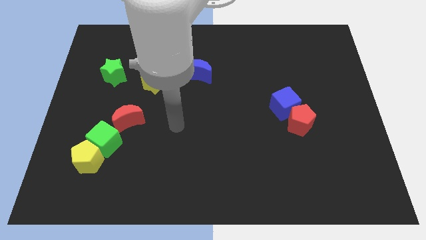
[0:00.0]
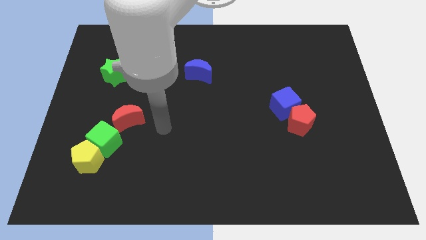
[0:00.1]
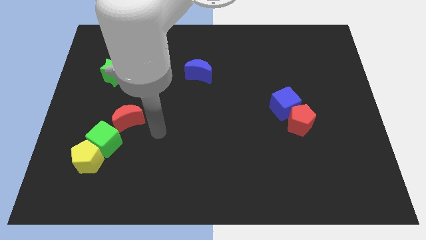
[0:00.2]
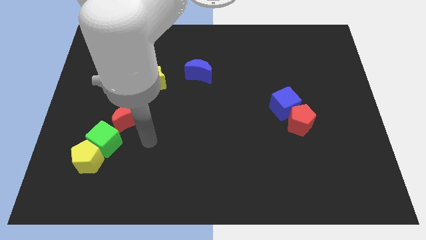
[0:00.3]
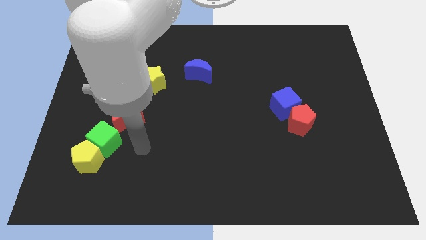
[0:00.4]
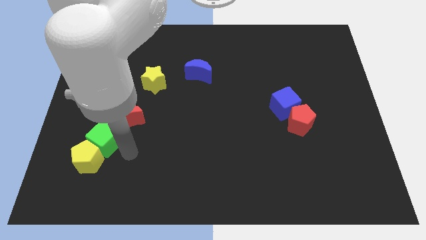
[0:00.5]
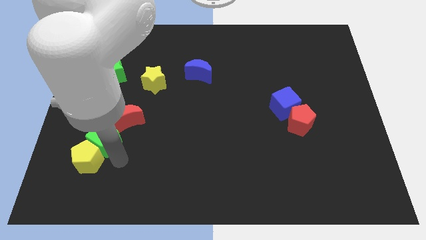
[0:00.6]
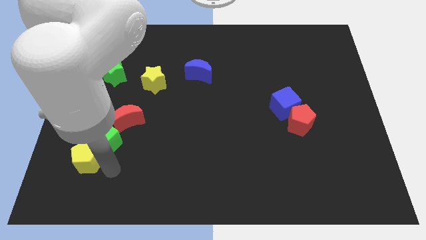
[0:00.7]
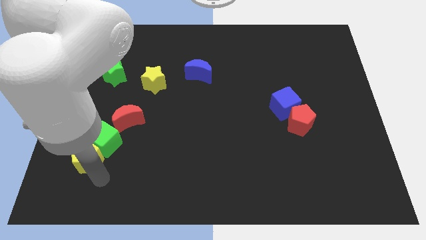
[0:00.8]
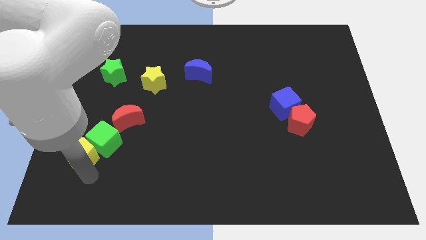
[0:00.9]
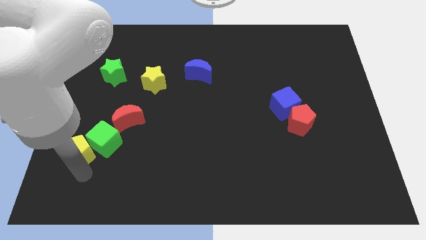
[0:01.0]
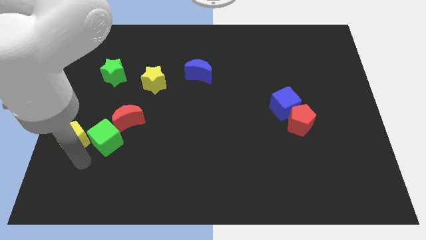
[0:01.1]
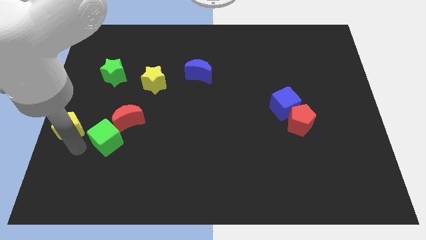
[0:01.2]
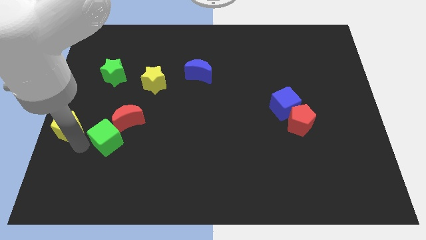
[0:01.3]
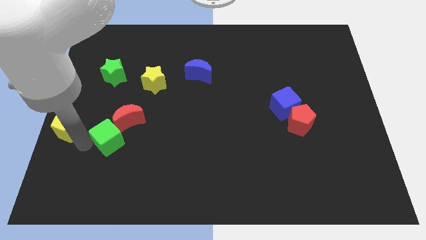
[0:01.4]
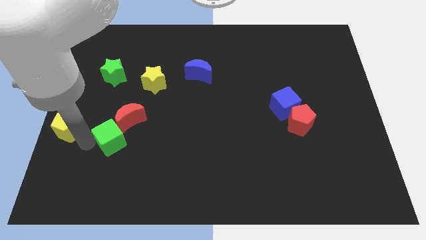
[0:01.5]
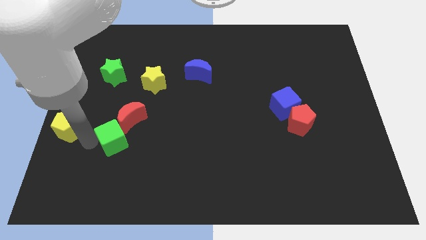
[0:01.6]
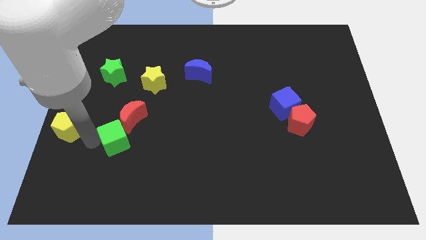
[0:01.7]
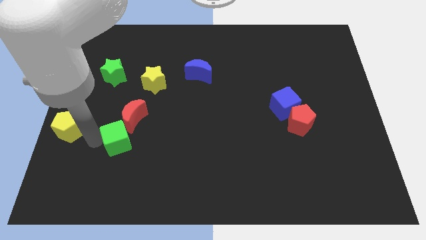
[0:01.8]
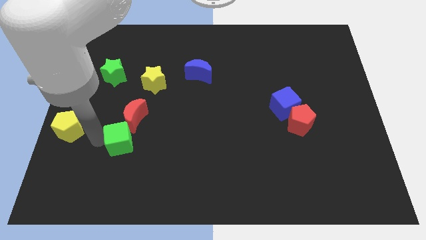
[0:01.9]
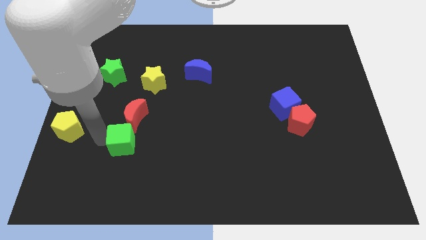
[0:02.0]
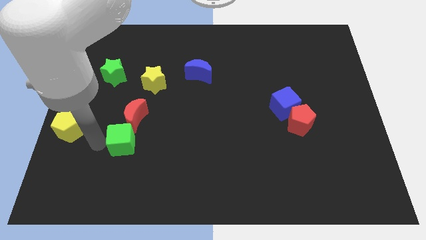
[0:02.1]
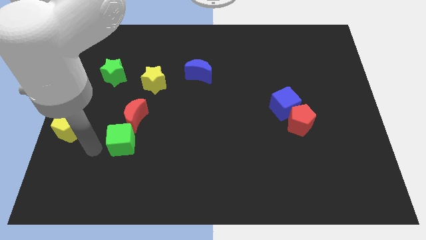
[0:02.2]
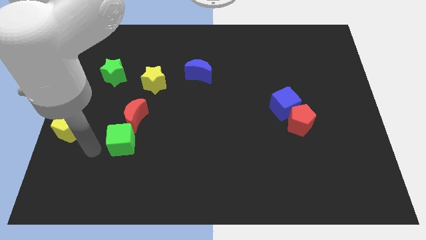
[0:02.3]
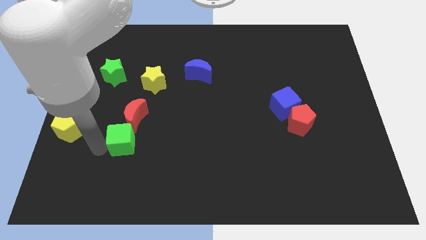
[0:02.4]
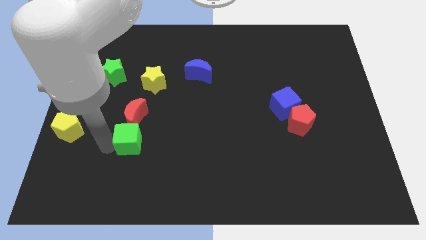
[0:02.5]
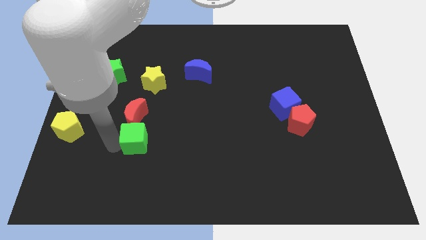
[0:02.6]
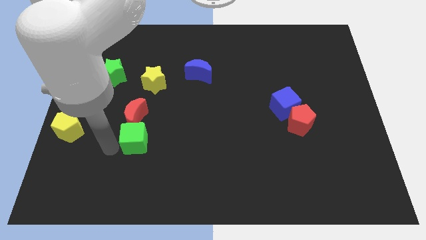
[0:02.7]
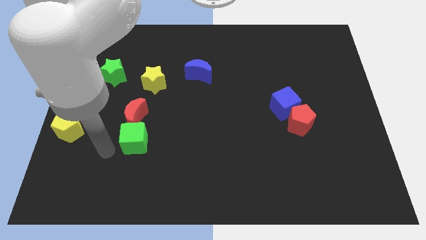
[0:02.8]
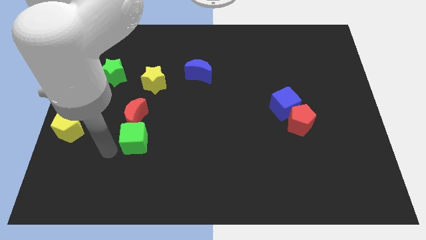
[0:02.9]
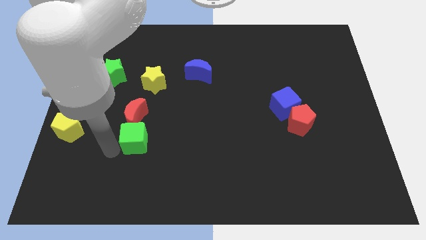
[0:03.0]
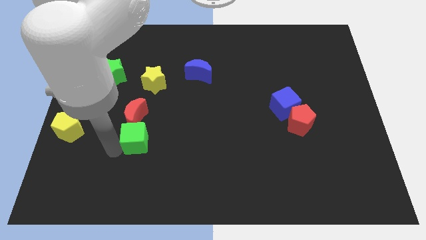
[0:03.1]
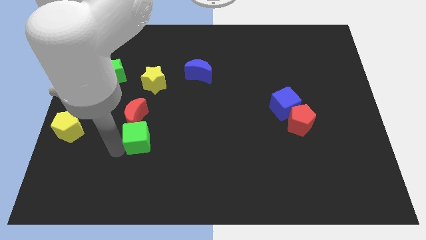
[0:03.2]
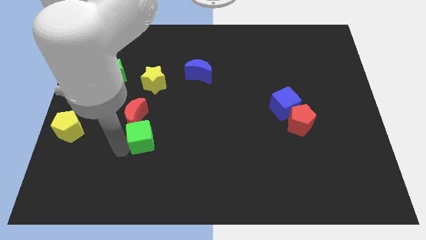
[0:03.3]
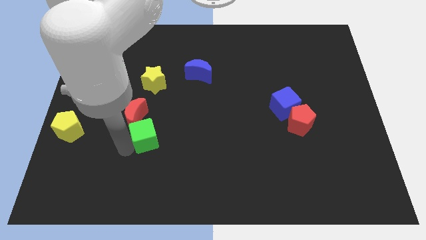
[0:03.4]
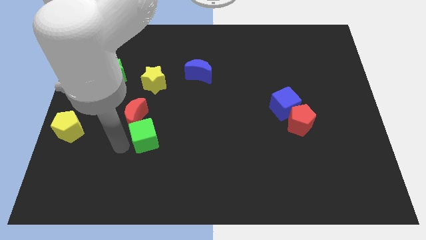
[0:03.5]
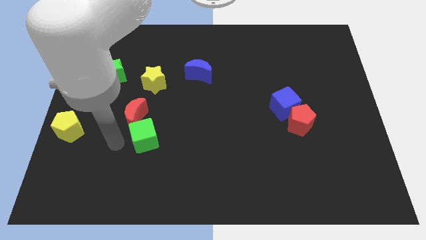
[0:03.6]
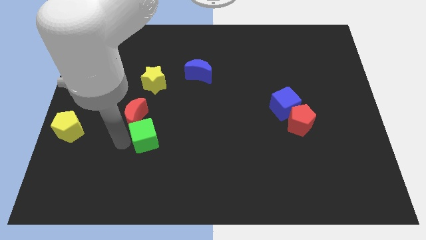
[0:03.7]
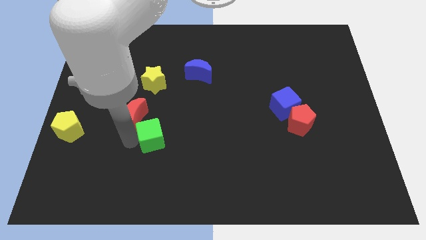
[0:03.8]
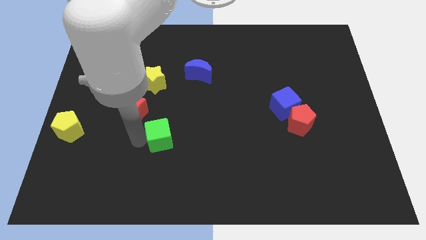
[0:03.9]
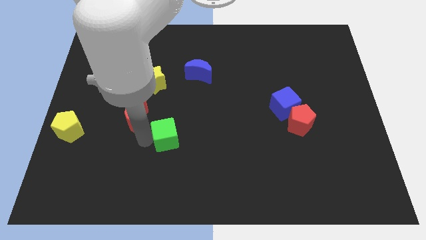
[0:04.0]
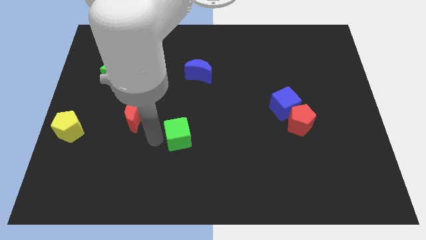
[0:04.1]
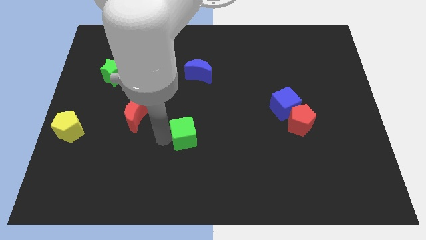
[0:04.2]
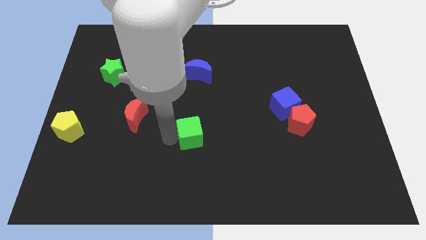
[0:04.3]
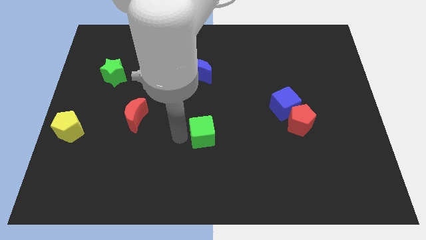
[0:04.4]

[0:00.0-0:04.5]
push the green cube right

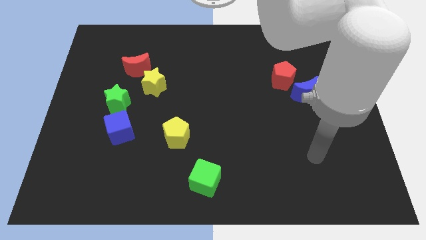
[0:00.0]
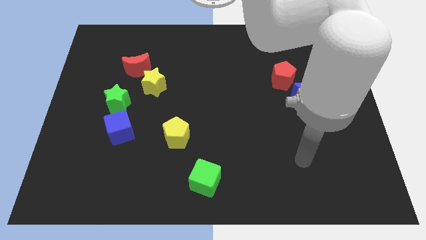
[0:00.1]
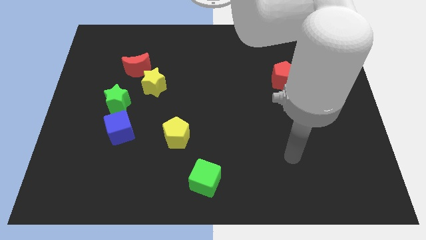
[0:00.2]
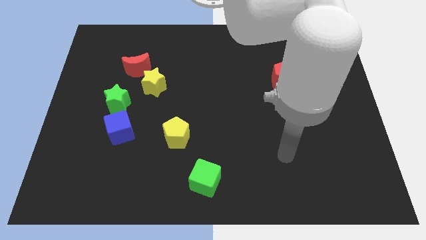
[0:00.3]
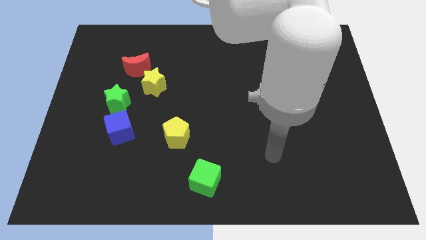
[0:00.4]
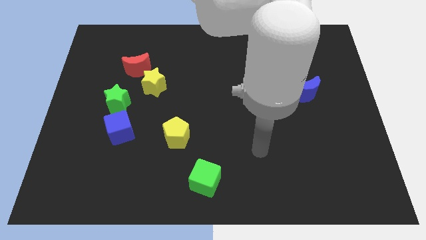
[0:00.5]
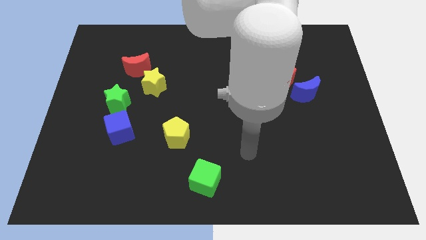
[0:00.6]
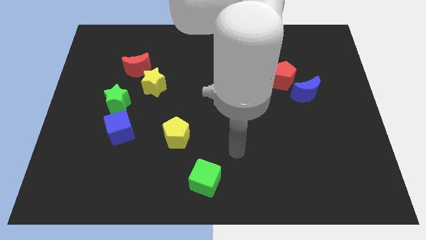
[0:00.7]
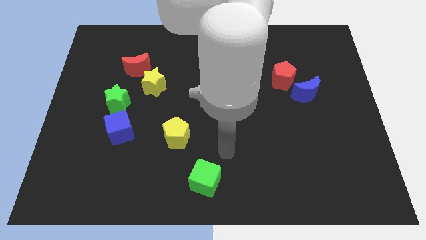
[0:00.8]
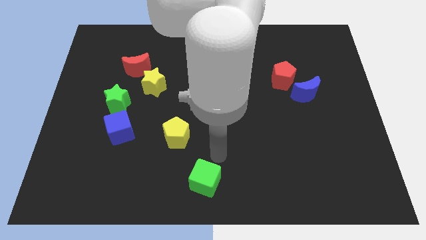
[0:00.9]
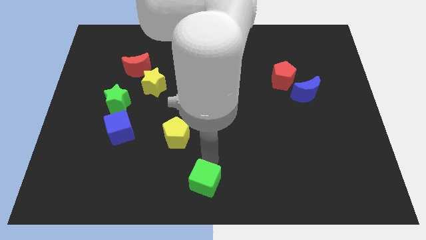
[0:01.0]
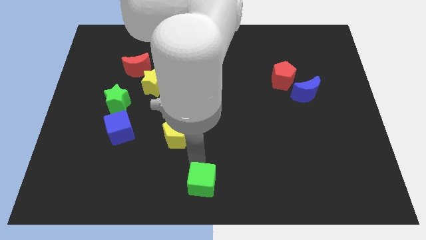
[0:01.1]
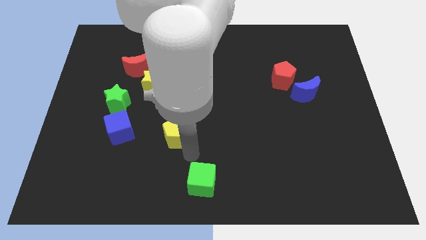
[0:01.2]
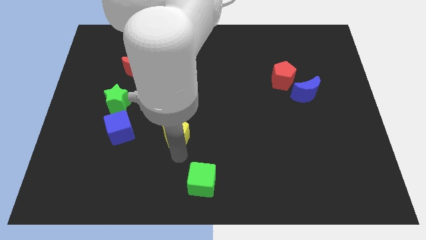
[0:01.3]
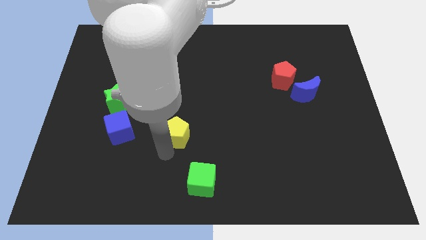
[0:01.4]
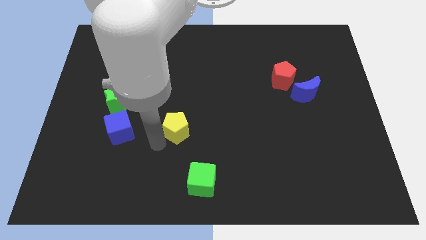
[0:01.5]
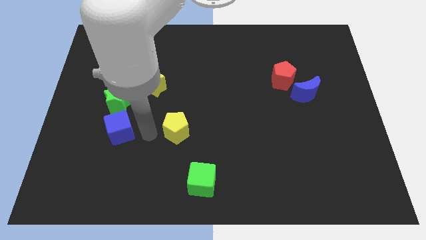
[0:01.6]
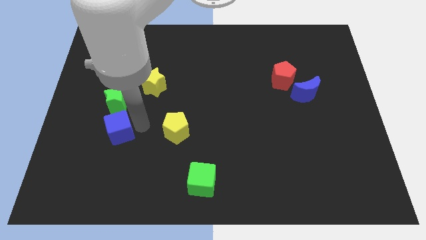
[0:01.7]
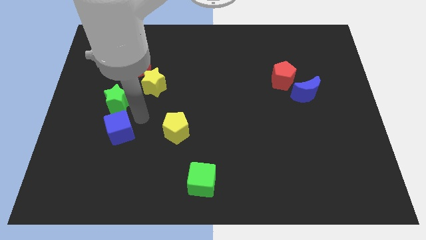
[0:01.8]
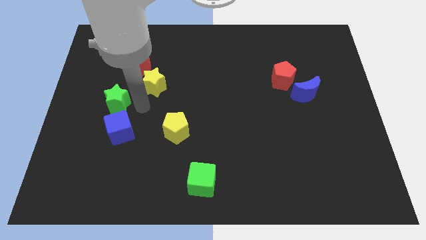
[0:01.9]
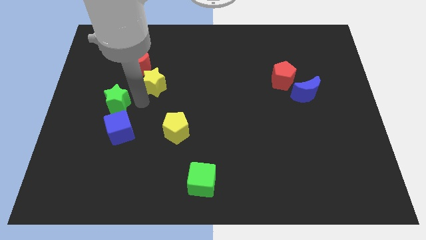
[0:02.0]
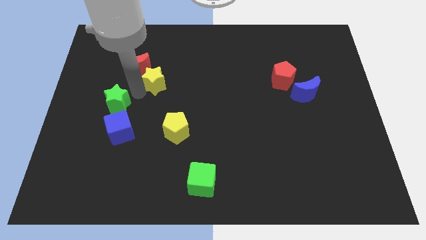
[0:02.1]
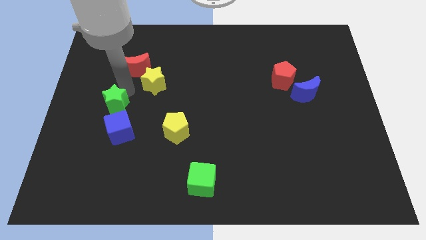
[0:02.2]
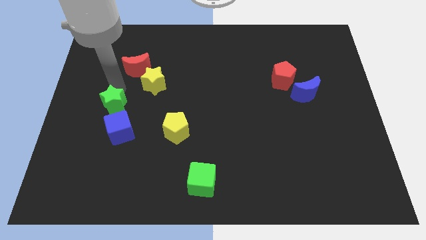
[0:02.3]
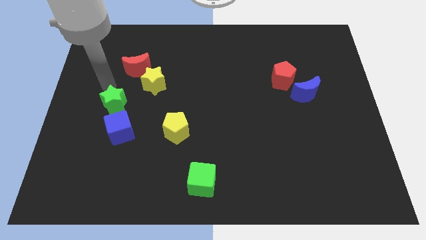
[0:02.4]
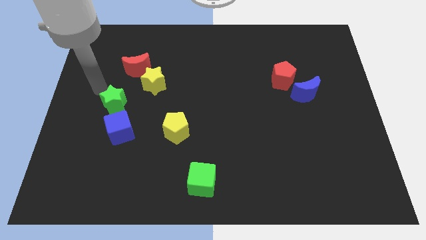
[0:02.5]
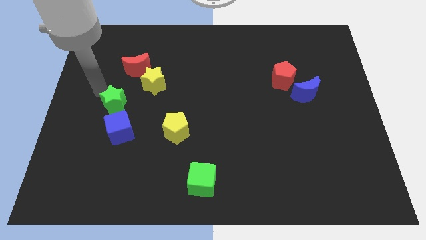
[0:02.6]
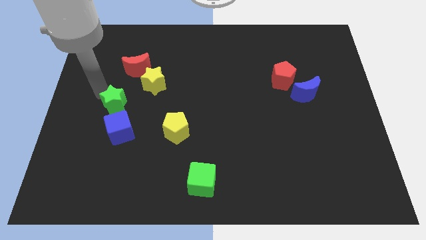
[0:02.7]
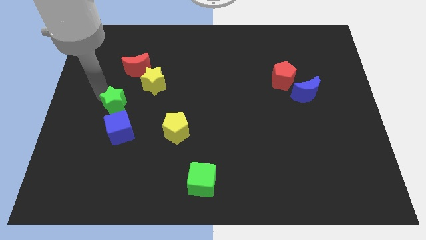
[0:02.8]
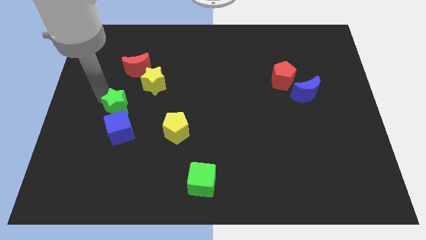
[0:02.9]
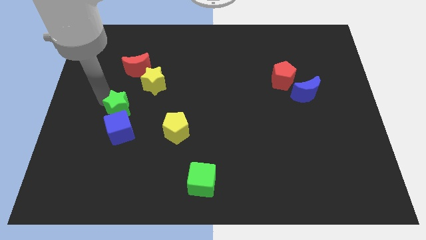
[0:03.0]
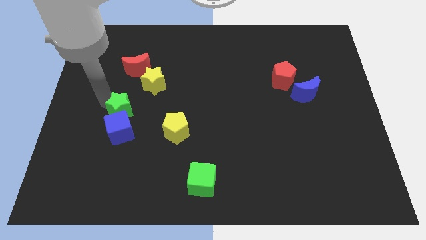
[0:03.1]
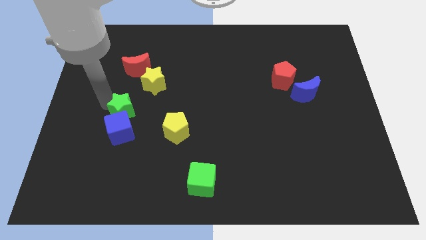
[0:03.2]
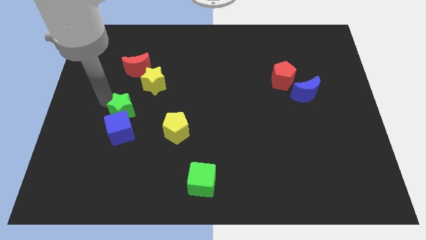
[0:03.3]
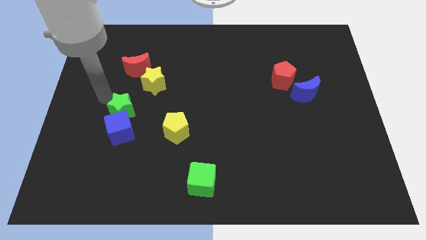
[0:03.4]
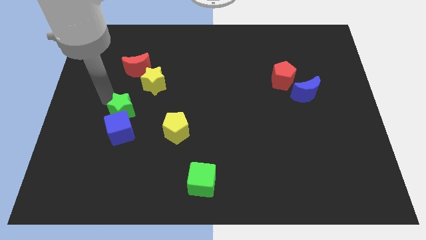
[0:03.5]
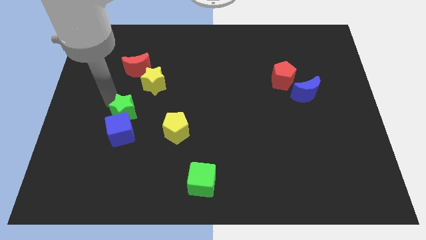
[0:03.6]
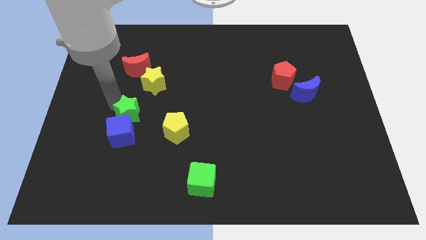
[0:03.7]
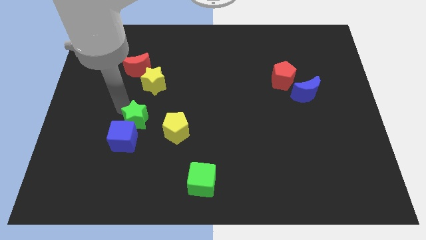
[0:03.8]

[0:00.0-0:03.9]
move the green star somewhat downwards and then to the right
